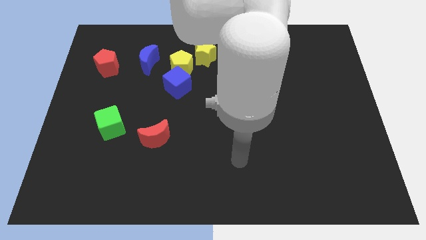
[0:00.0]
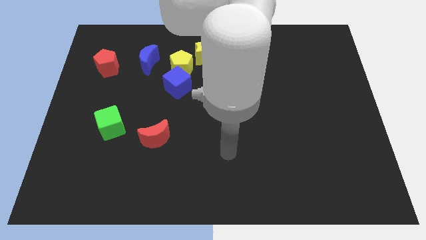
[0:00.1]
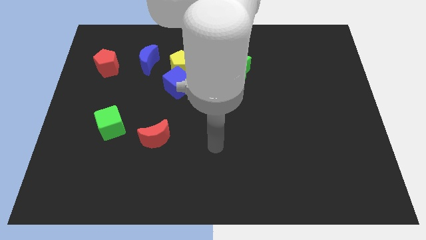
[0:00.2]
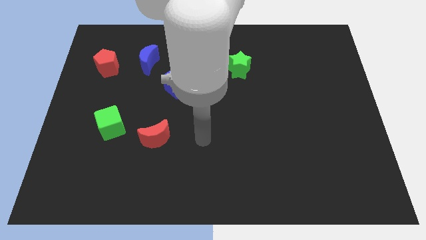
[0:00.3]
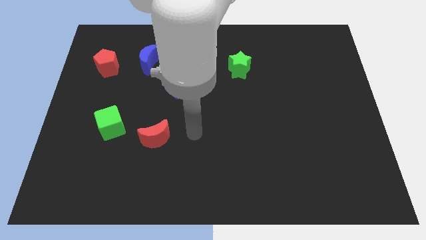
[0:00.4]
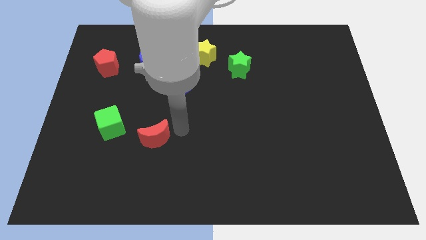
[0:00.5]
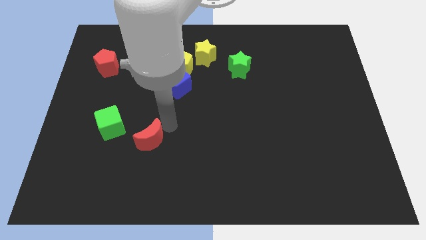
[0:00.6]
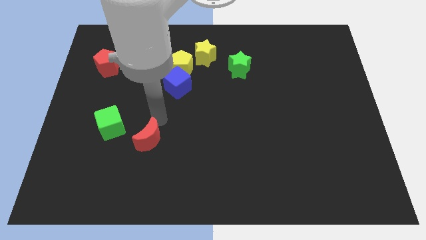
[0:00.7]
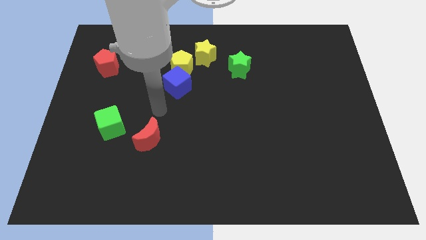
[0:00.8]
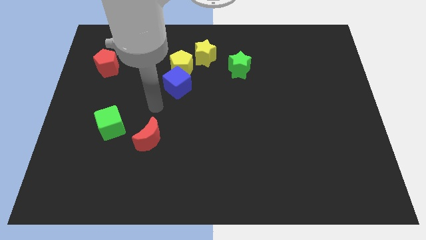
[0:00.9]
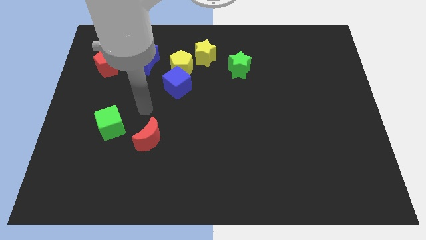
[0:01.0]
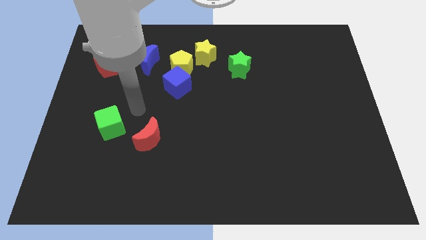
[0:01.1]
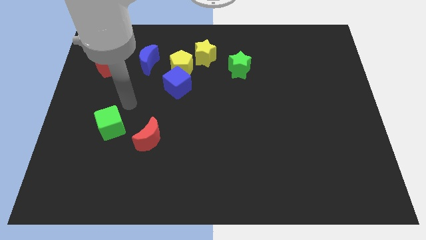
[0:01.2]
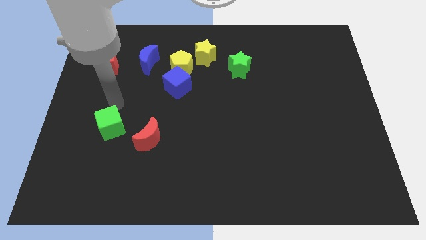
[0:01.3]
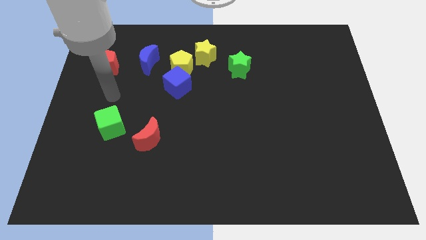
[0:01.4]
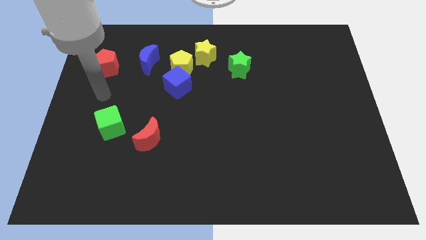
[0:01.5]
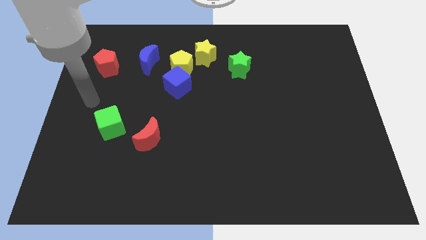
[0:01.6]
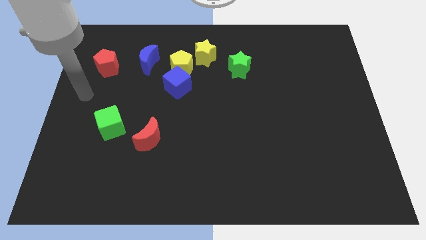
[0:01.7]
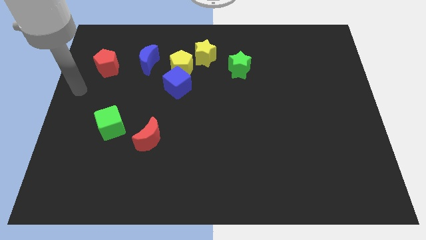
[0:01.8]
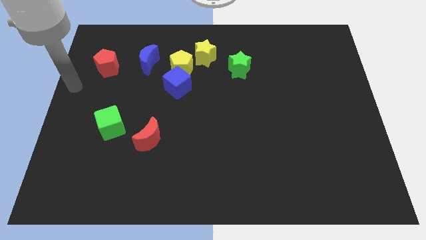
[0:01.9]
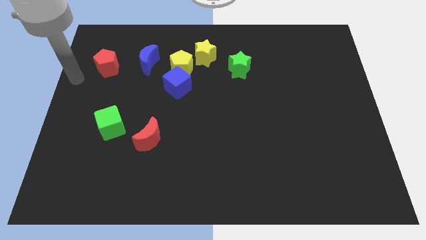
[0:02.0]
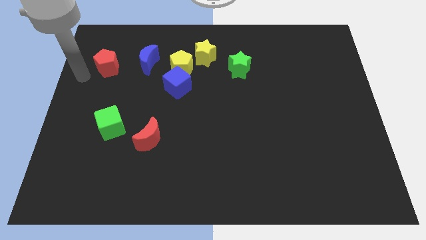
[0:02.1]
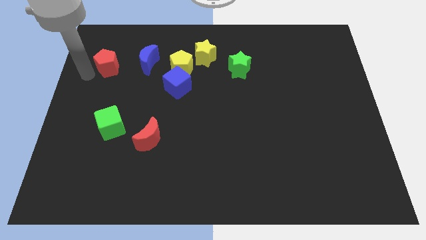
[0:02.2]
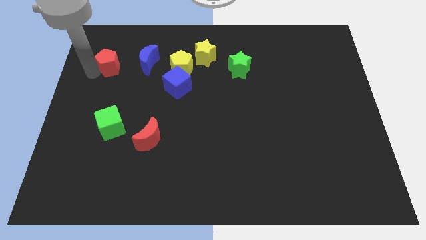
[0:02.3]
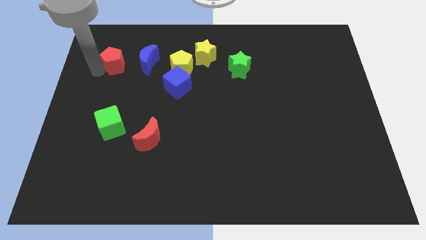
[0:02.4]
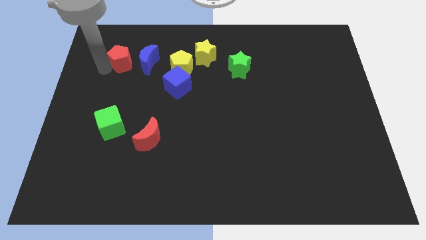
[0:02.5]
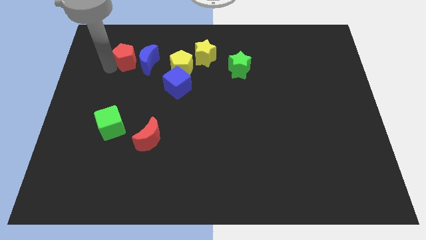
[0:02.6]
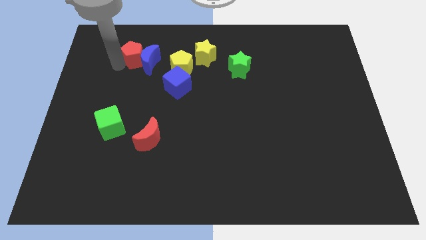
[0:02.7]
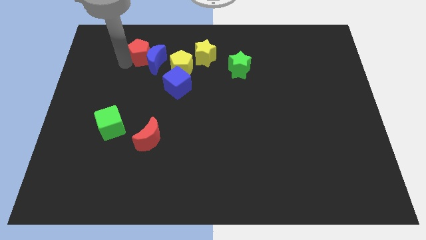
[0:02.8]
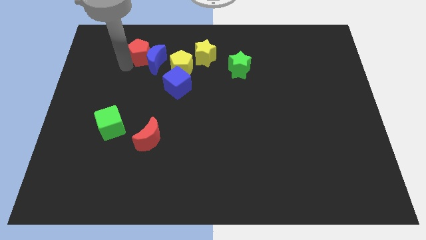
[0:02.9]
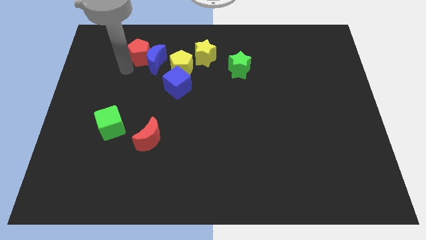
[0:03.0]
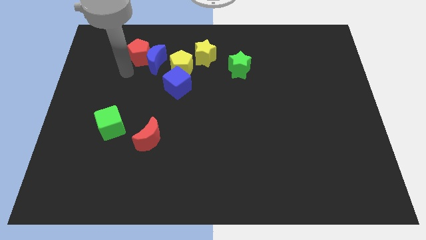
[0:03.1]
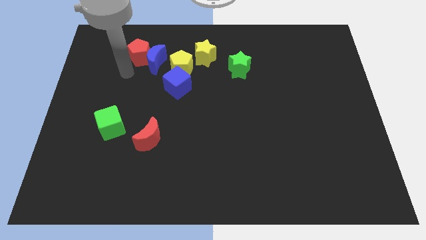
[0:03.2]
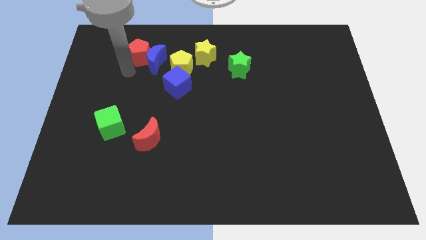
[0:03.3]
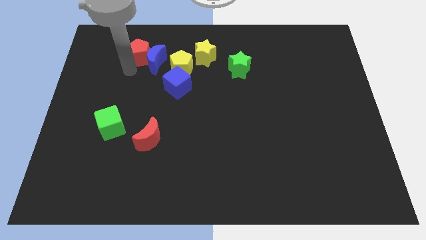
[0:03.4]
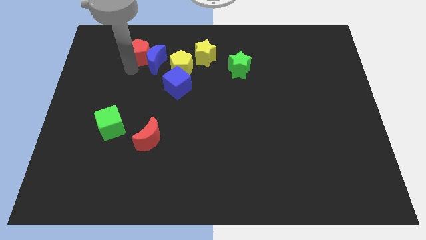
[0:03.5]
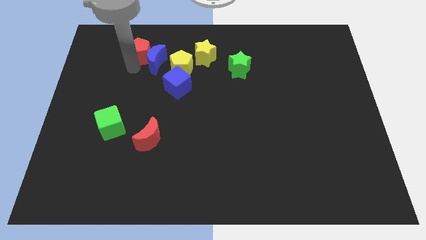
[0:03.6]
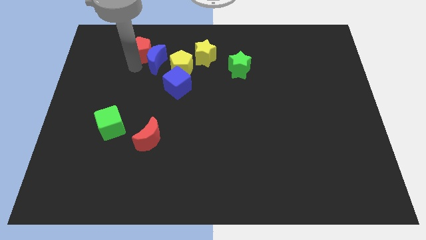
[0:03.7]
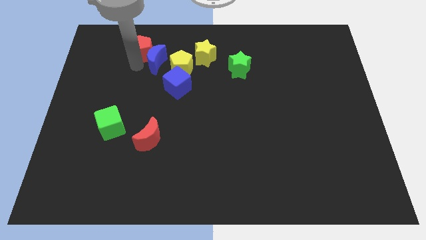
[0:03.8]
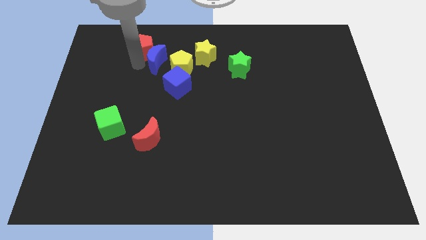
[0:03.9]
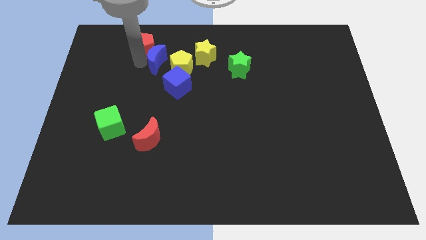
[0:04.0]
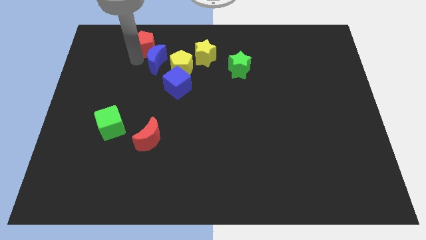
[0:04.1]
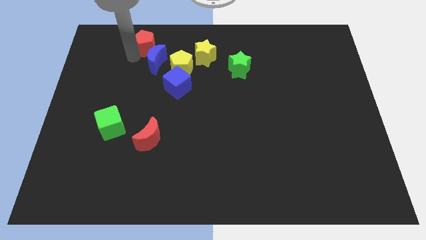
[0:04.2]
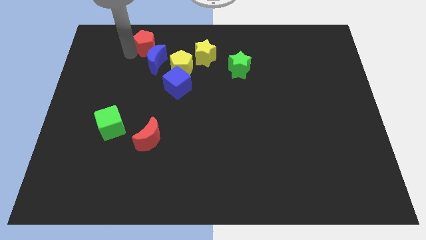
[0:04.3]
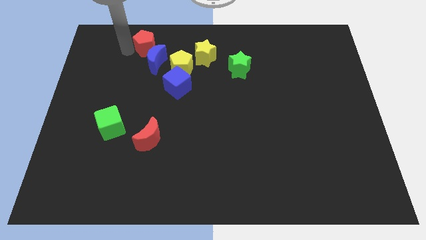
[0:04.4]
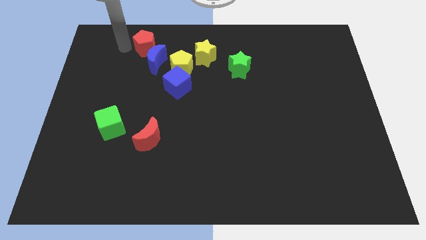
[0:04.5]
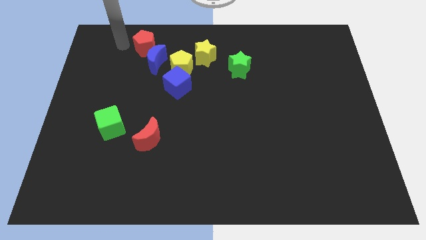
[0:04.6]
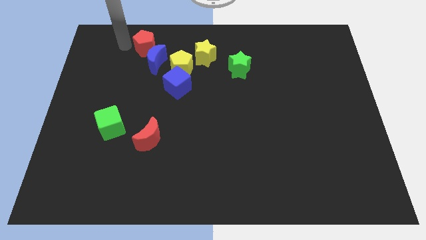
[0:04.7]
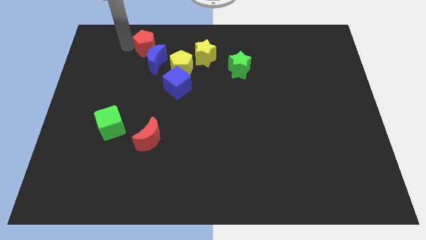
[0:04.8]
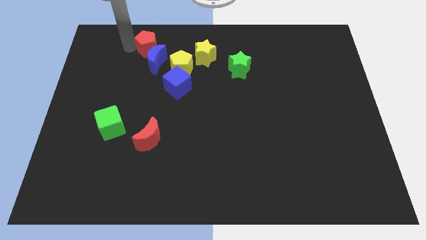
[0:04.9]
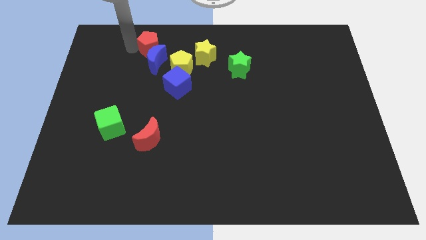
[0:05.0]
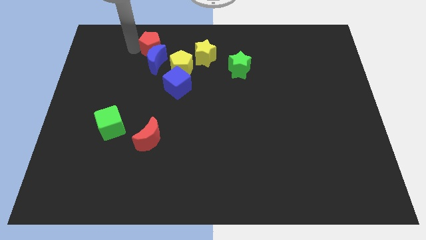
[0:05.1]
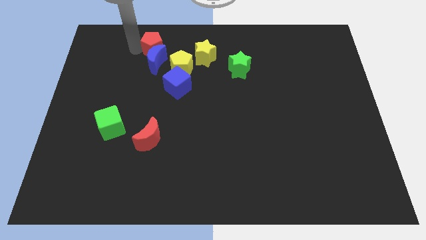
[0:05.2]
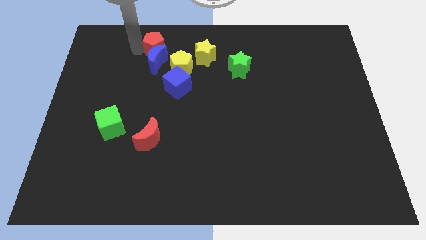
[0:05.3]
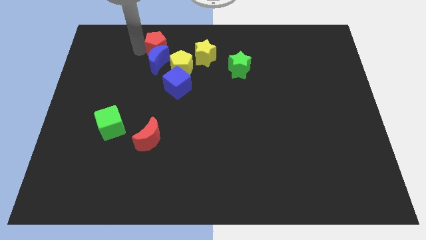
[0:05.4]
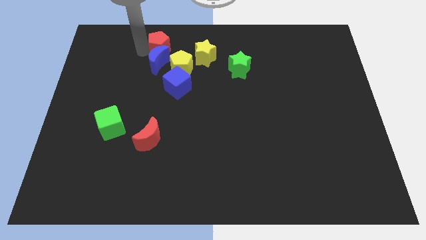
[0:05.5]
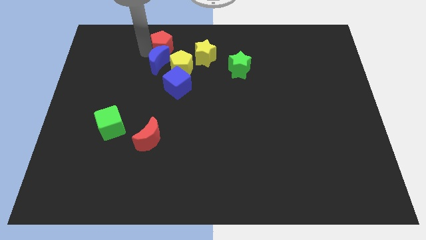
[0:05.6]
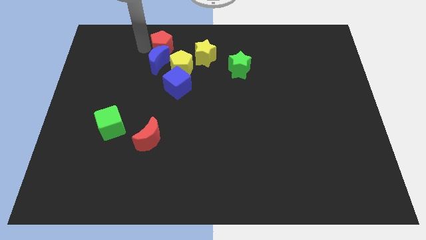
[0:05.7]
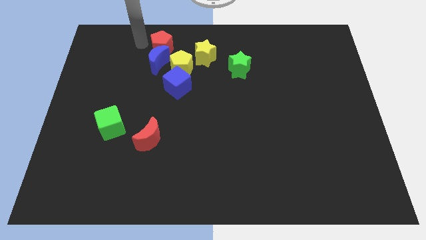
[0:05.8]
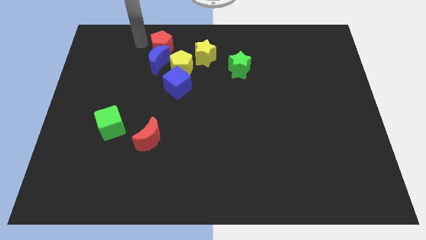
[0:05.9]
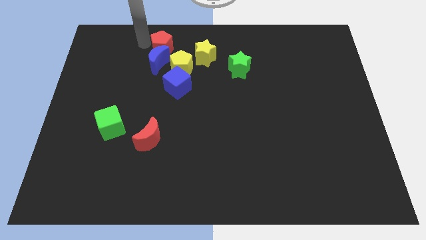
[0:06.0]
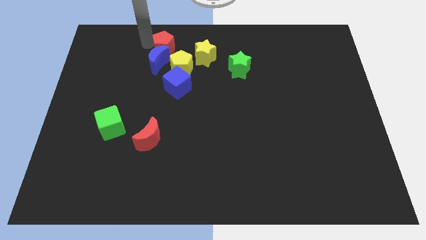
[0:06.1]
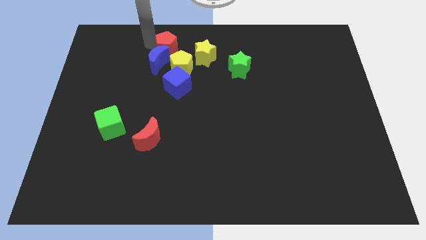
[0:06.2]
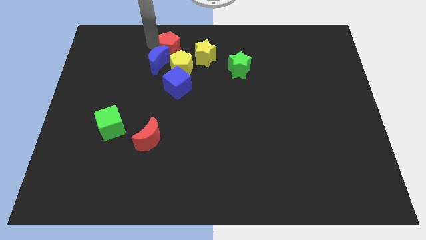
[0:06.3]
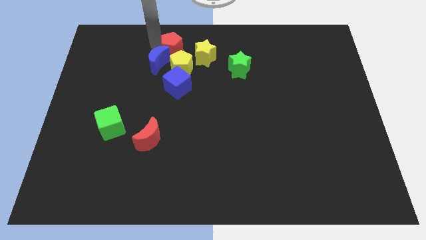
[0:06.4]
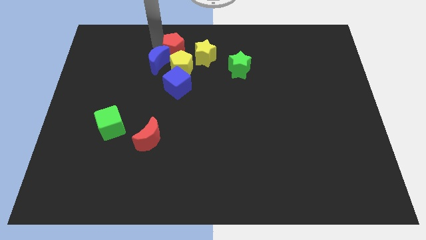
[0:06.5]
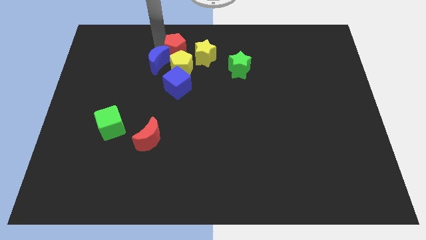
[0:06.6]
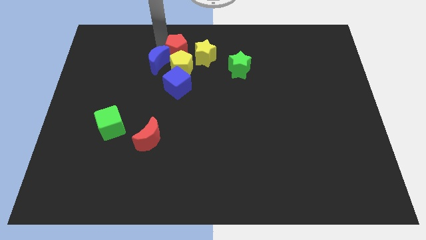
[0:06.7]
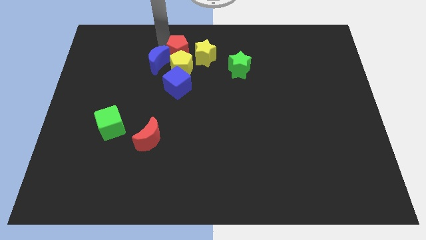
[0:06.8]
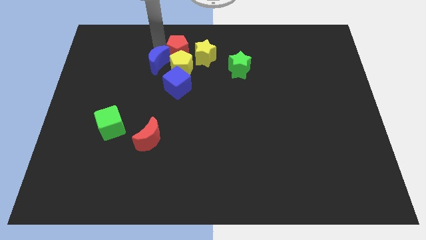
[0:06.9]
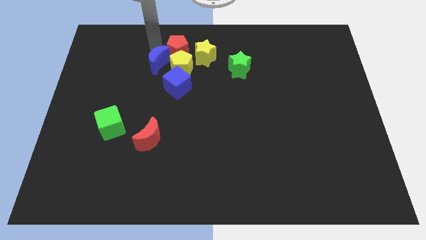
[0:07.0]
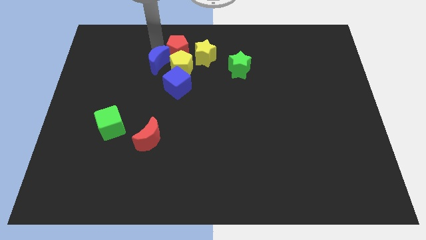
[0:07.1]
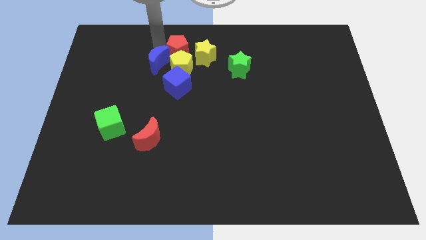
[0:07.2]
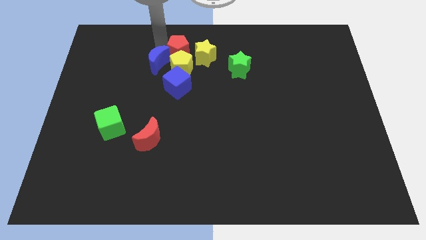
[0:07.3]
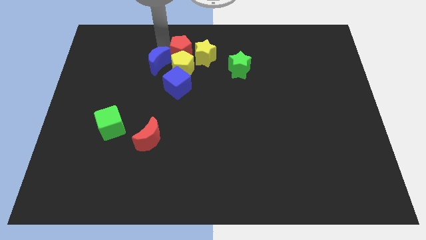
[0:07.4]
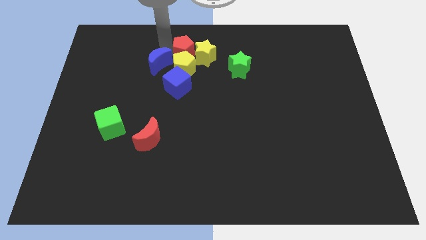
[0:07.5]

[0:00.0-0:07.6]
slide the red pentagon next to the yellow star
